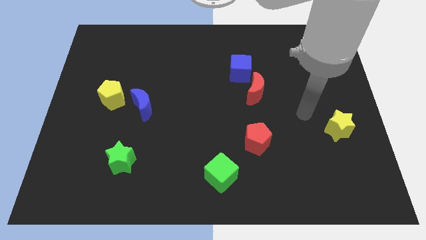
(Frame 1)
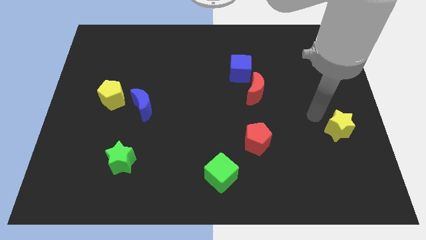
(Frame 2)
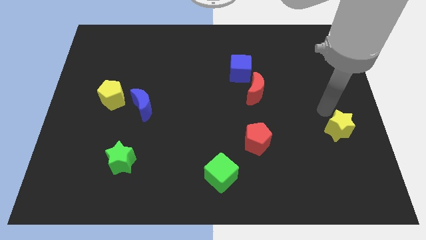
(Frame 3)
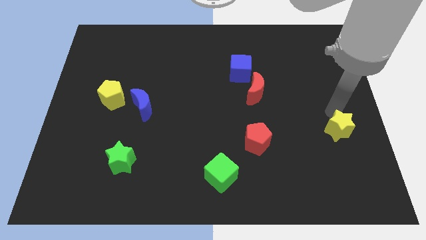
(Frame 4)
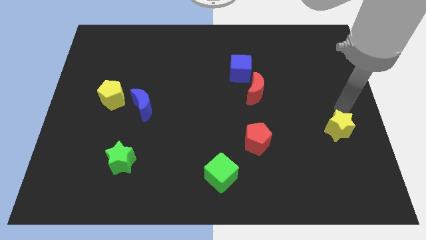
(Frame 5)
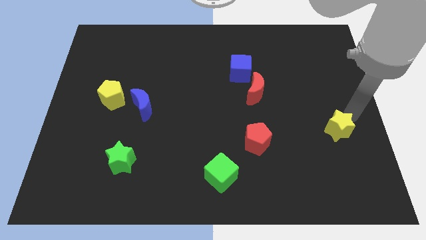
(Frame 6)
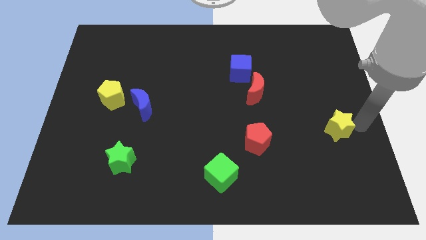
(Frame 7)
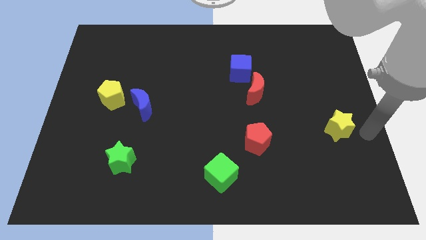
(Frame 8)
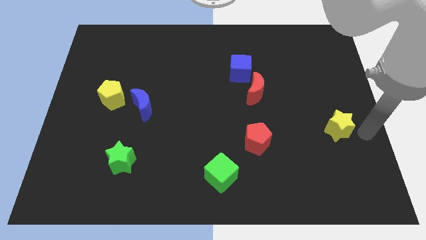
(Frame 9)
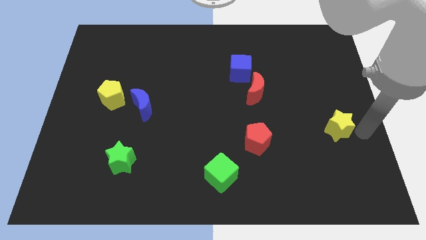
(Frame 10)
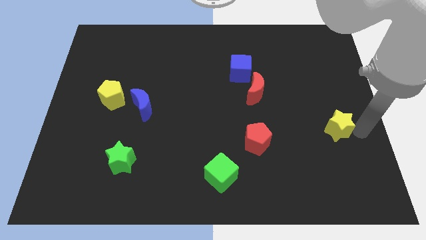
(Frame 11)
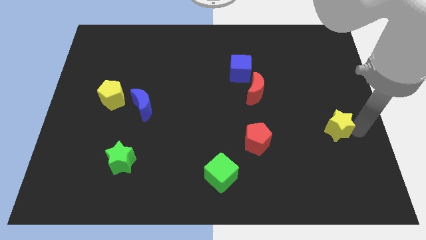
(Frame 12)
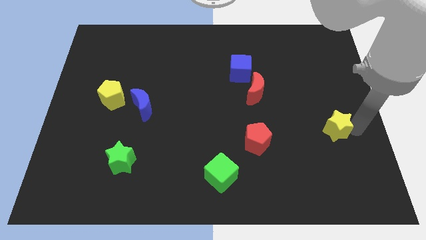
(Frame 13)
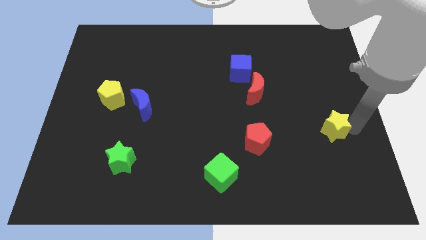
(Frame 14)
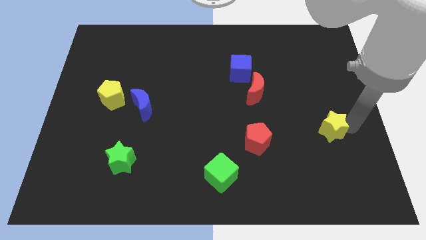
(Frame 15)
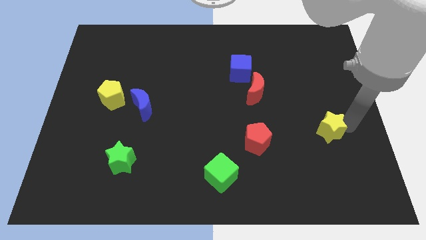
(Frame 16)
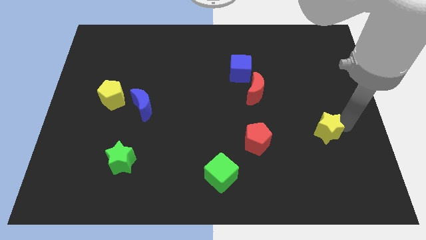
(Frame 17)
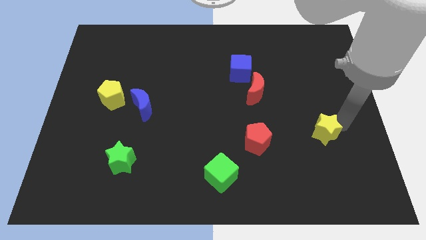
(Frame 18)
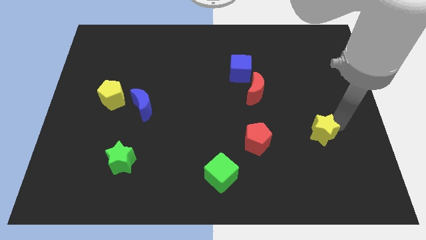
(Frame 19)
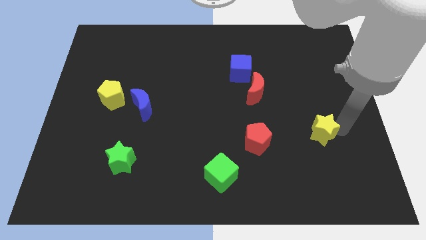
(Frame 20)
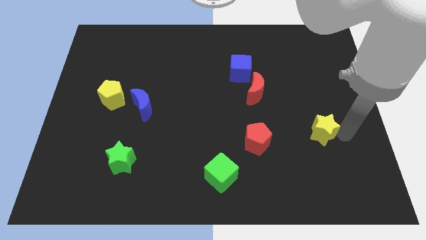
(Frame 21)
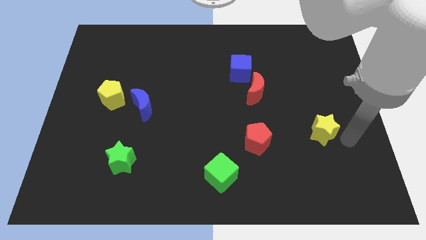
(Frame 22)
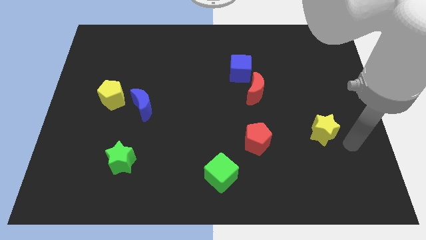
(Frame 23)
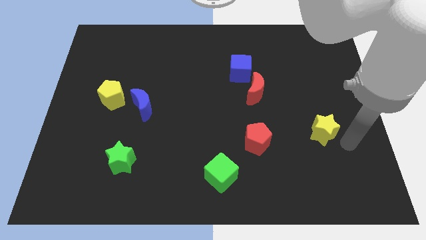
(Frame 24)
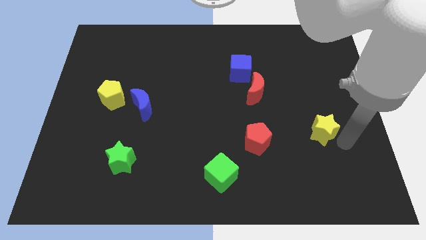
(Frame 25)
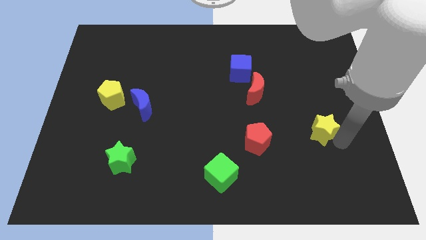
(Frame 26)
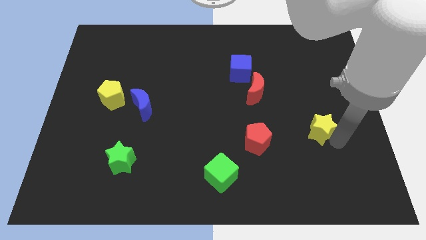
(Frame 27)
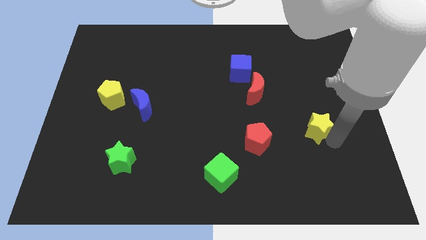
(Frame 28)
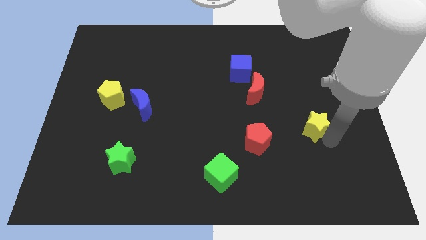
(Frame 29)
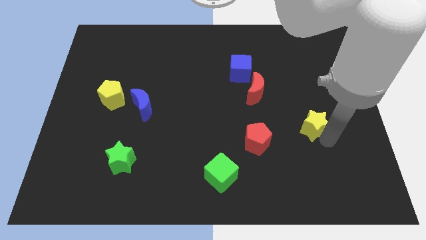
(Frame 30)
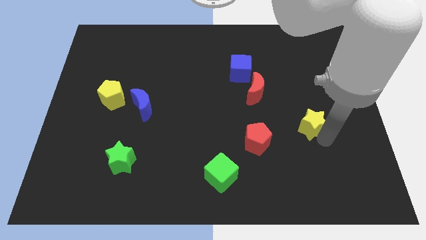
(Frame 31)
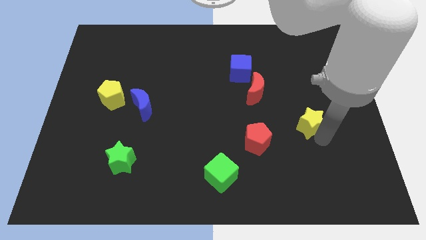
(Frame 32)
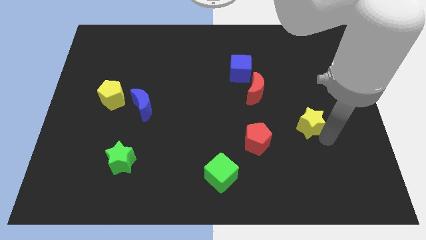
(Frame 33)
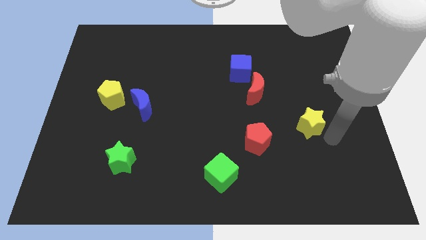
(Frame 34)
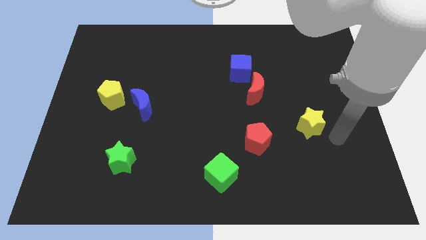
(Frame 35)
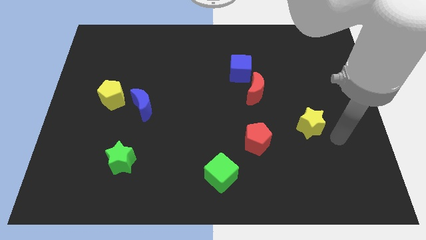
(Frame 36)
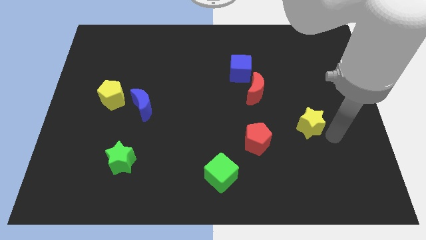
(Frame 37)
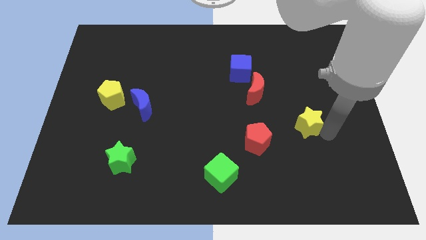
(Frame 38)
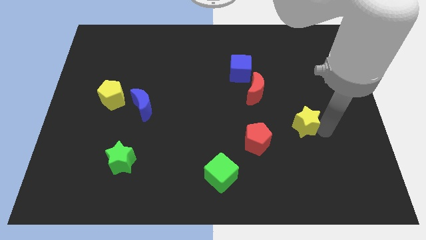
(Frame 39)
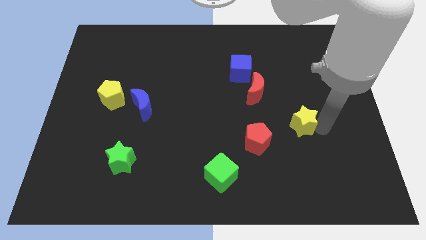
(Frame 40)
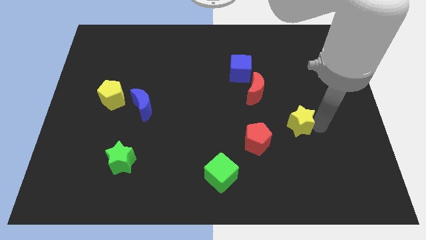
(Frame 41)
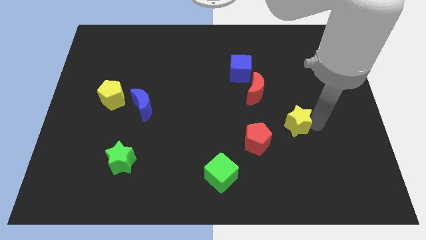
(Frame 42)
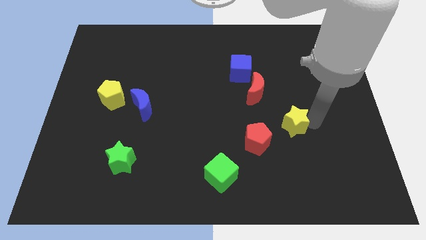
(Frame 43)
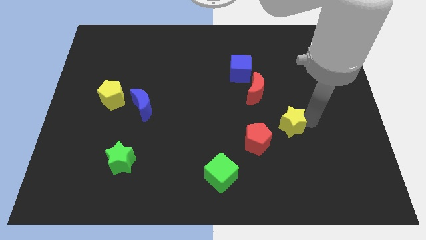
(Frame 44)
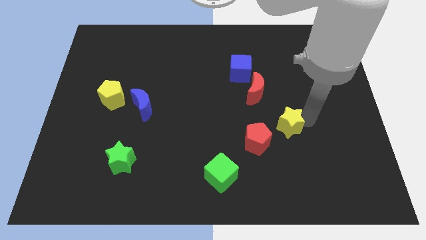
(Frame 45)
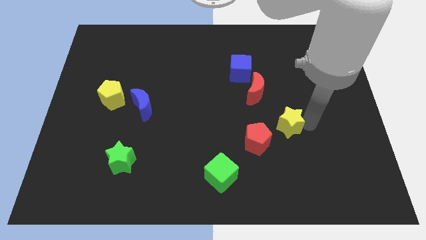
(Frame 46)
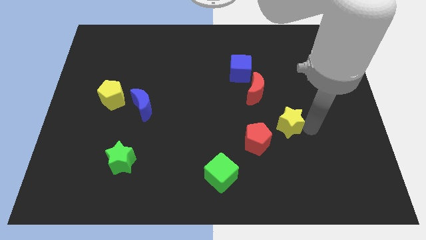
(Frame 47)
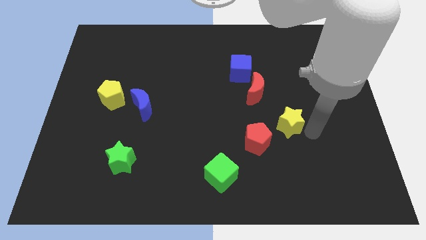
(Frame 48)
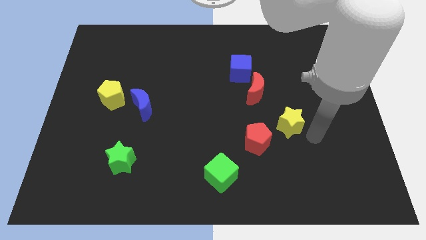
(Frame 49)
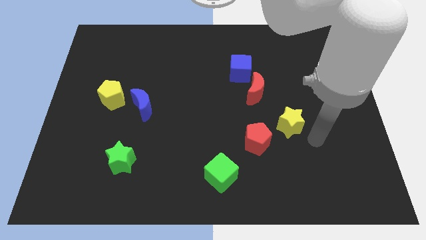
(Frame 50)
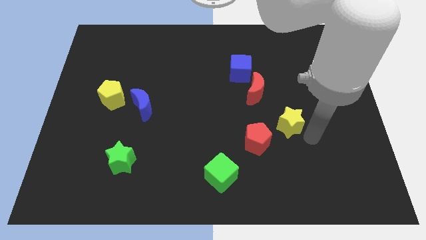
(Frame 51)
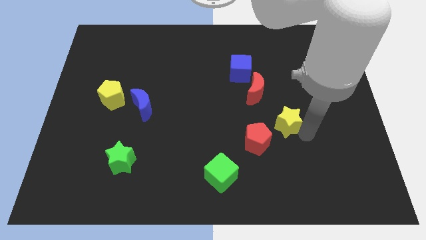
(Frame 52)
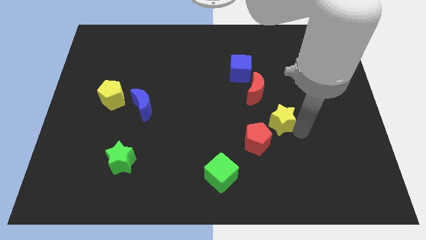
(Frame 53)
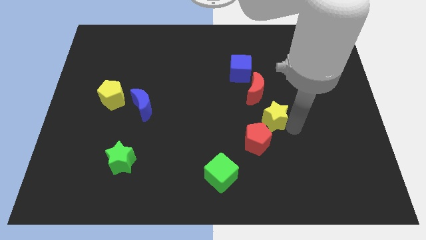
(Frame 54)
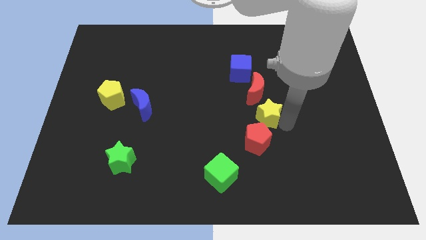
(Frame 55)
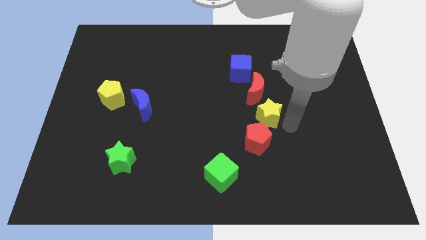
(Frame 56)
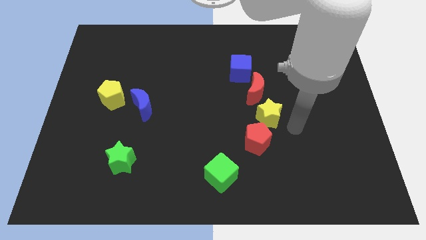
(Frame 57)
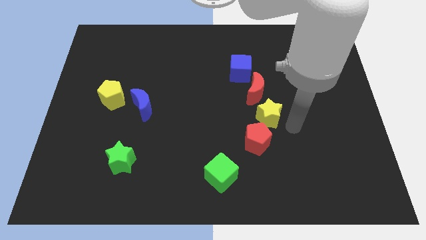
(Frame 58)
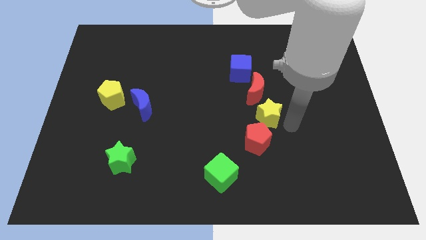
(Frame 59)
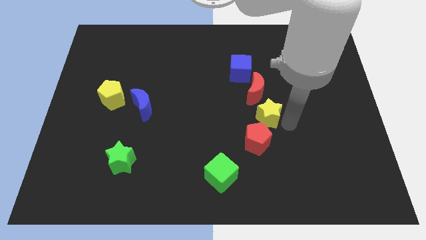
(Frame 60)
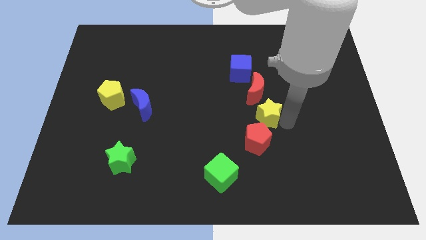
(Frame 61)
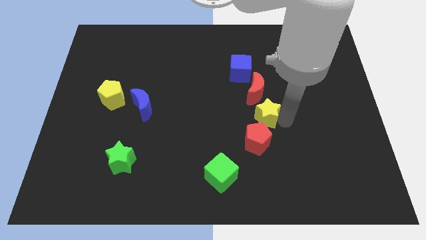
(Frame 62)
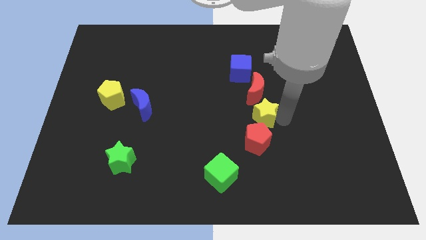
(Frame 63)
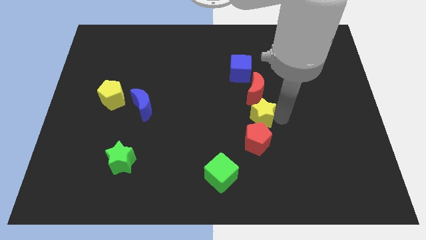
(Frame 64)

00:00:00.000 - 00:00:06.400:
move the yellow star to the middle of the board

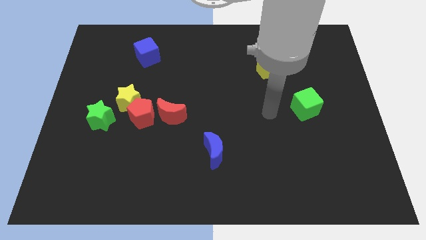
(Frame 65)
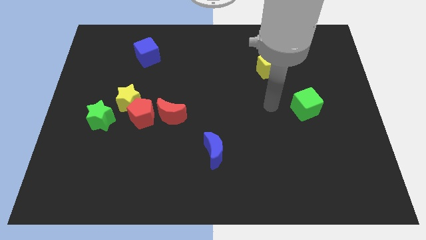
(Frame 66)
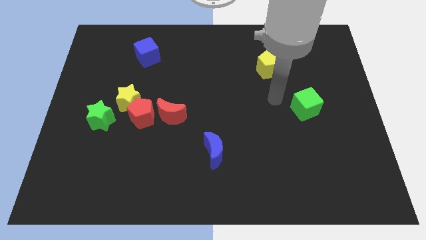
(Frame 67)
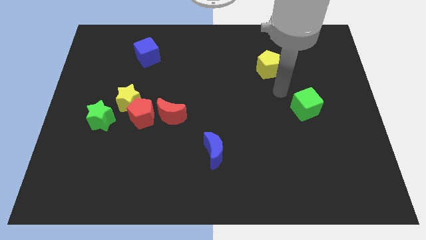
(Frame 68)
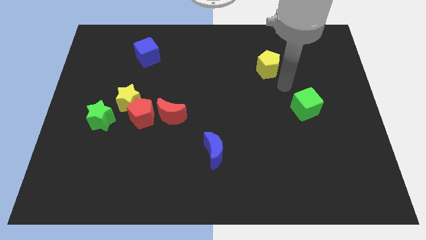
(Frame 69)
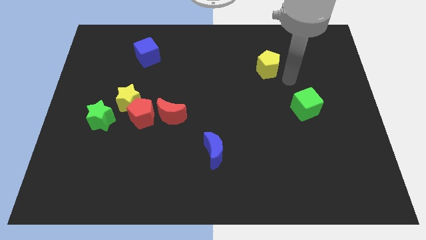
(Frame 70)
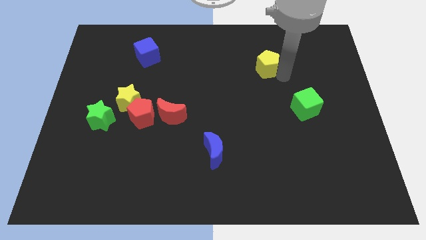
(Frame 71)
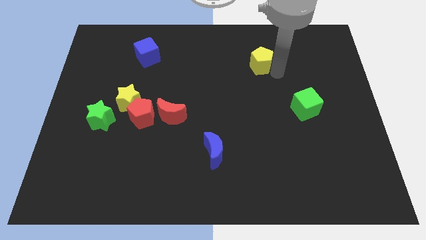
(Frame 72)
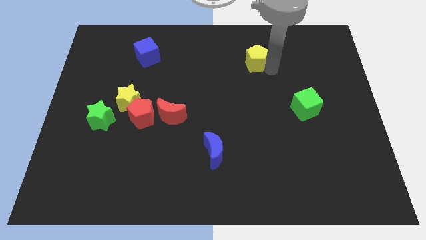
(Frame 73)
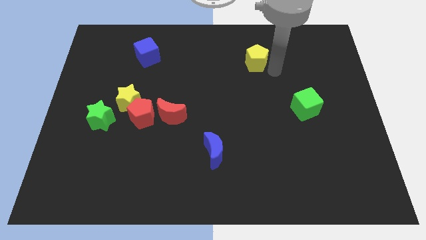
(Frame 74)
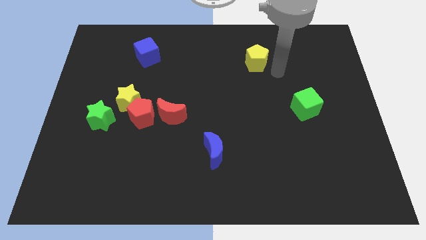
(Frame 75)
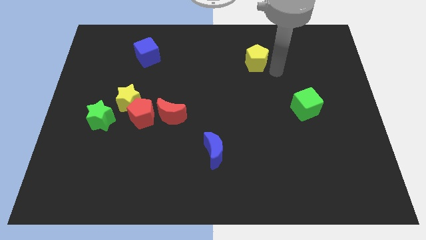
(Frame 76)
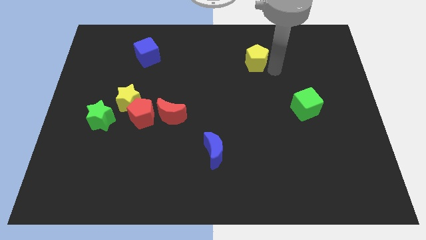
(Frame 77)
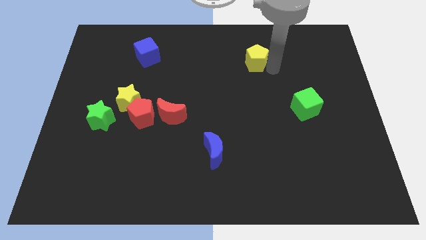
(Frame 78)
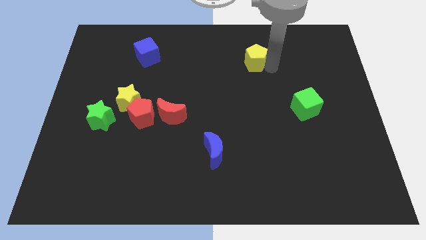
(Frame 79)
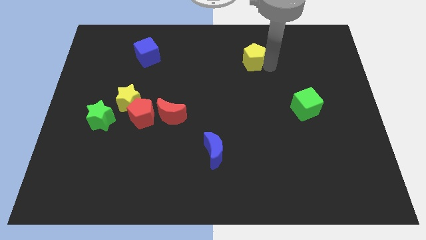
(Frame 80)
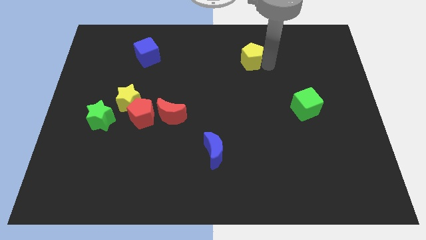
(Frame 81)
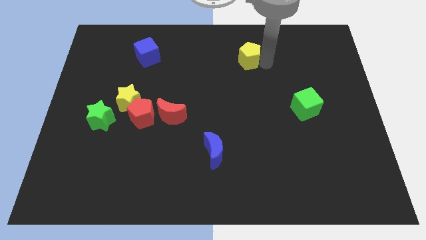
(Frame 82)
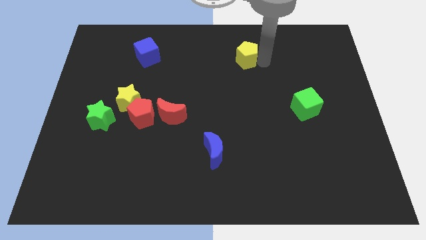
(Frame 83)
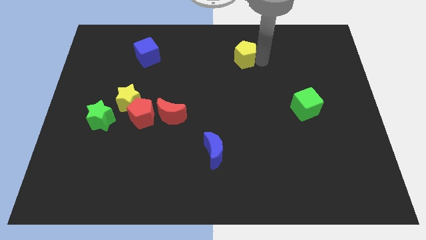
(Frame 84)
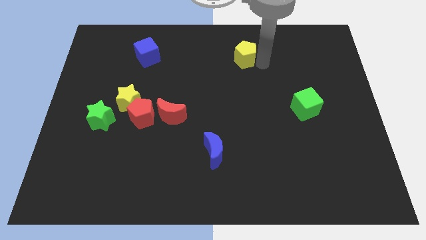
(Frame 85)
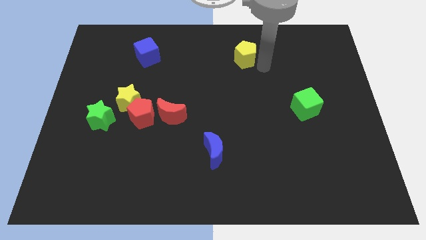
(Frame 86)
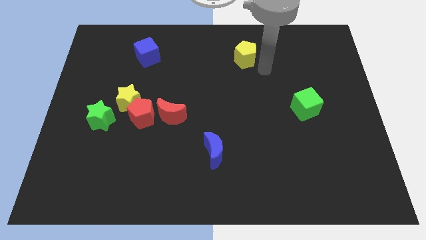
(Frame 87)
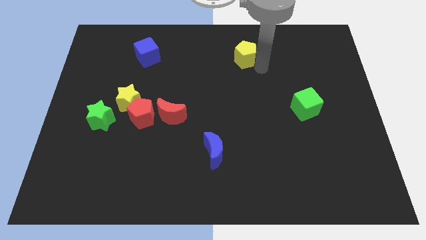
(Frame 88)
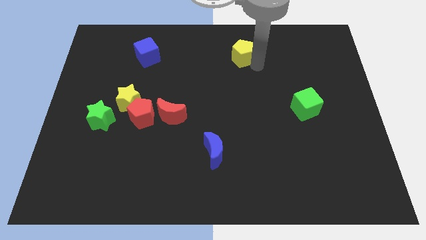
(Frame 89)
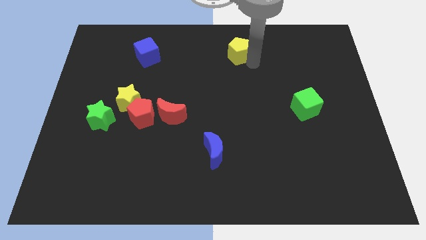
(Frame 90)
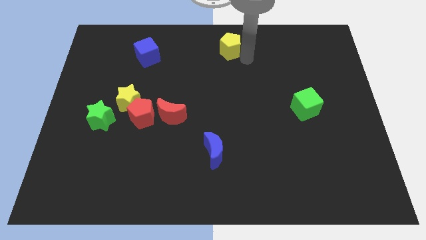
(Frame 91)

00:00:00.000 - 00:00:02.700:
push the yellow pentagon to the top
